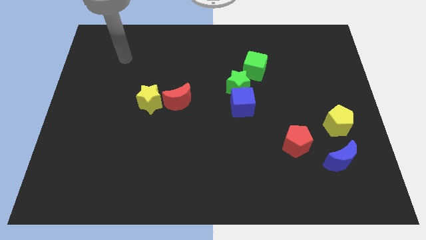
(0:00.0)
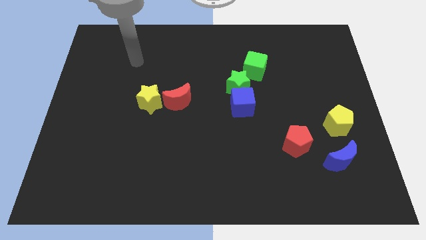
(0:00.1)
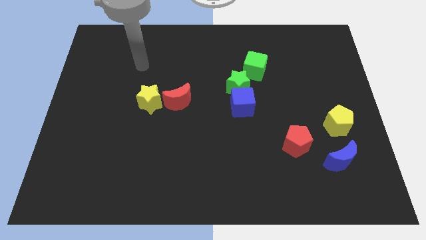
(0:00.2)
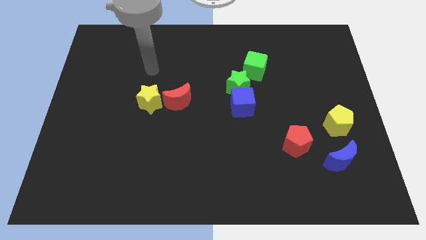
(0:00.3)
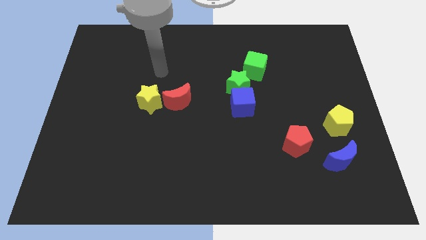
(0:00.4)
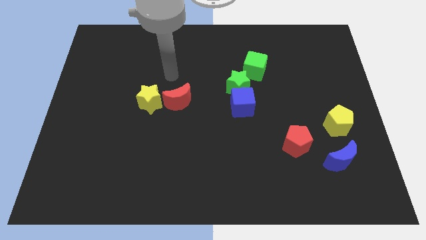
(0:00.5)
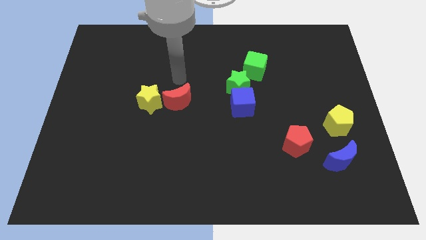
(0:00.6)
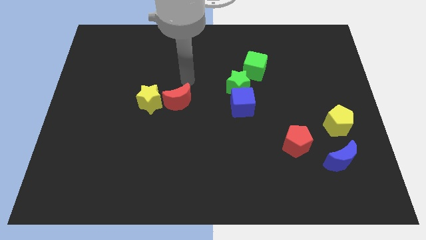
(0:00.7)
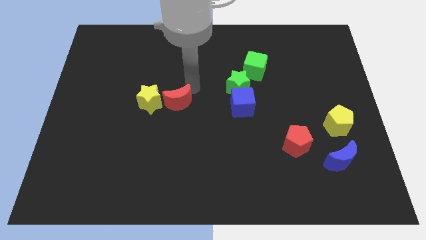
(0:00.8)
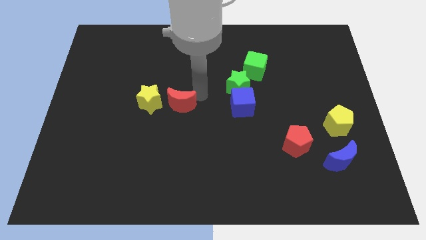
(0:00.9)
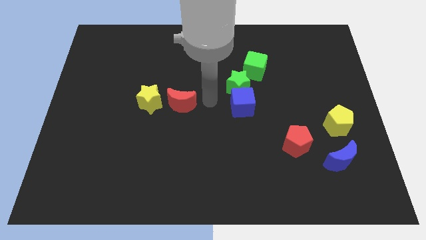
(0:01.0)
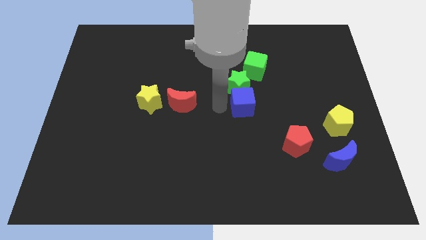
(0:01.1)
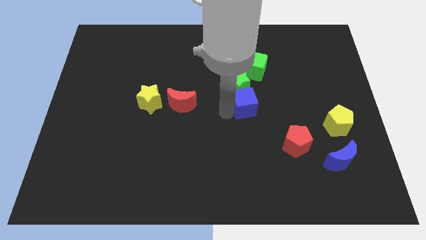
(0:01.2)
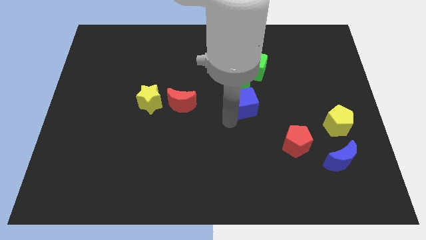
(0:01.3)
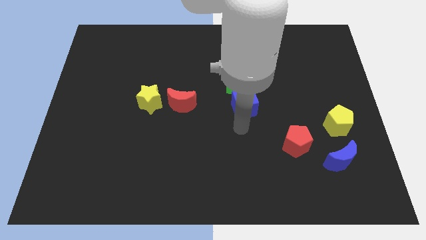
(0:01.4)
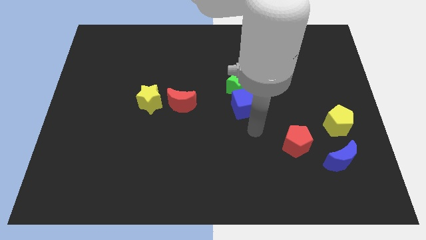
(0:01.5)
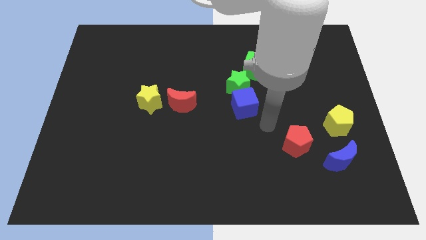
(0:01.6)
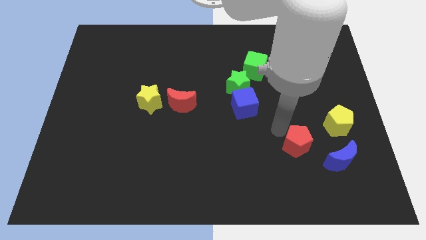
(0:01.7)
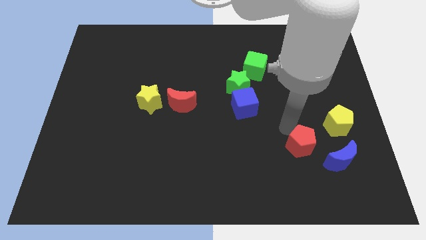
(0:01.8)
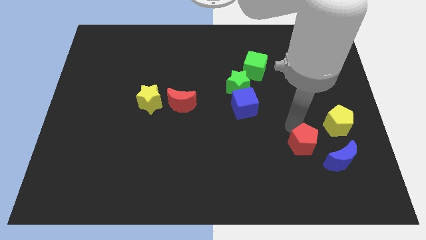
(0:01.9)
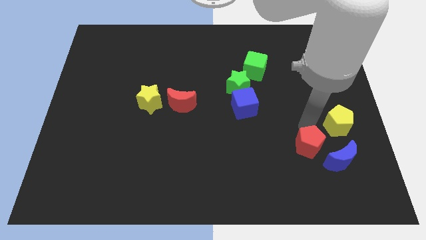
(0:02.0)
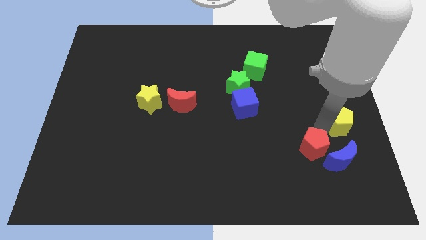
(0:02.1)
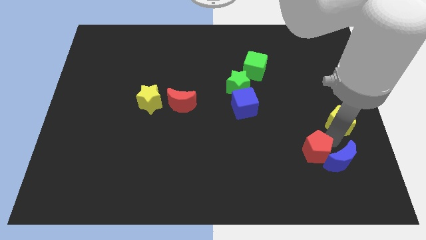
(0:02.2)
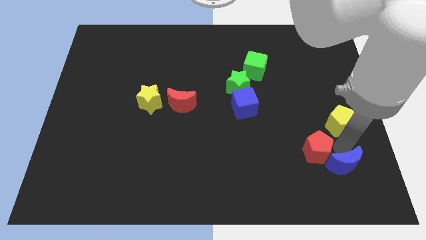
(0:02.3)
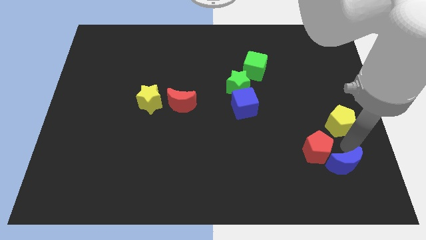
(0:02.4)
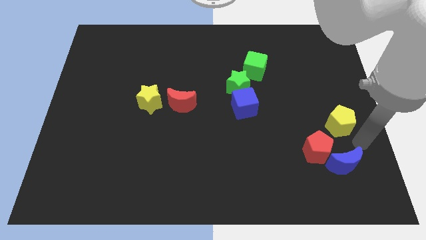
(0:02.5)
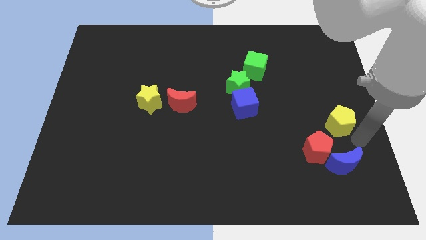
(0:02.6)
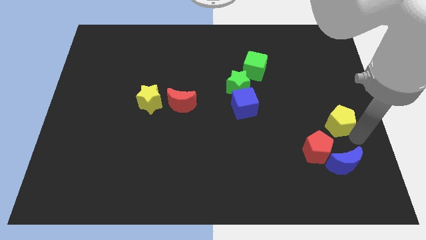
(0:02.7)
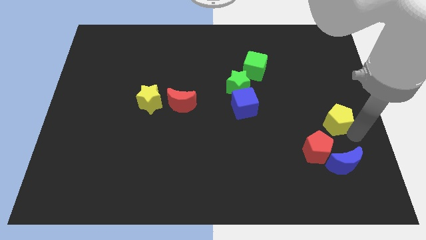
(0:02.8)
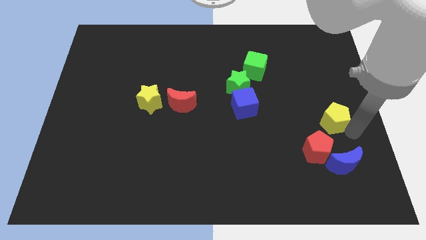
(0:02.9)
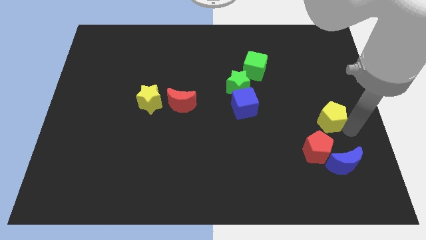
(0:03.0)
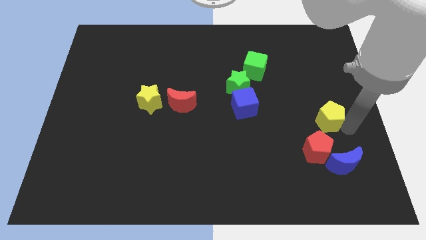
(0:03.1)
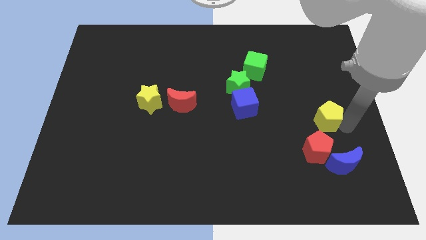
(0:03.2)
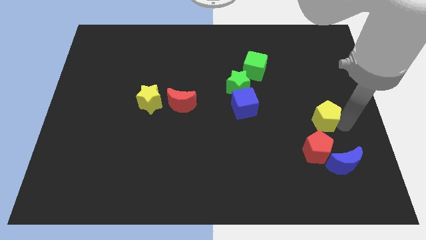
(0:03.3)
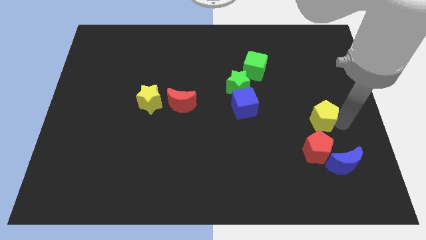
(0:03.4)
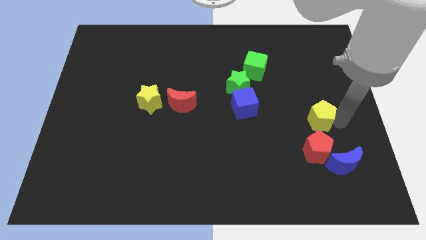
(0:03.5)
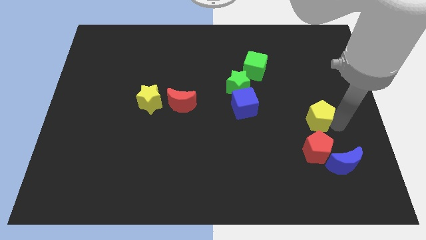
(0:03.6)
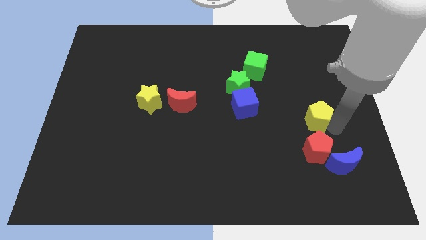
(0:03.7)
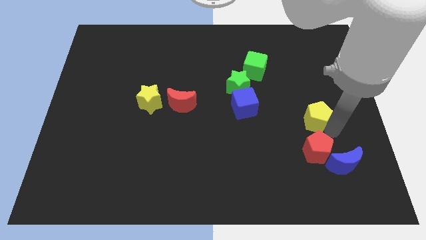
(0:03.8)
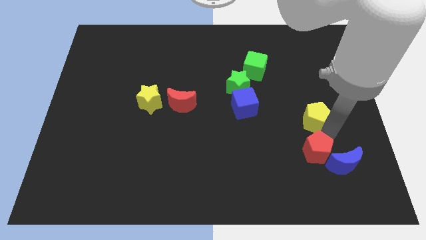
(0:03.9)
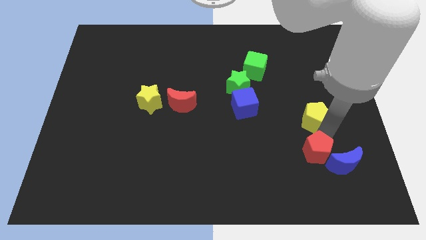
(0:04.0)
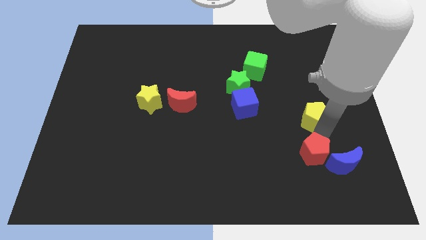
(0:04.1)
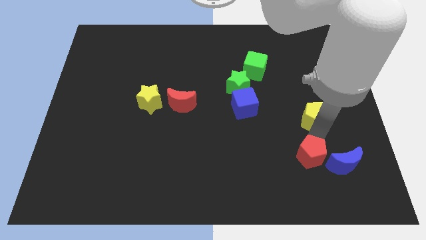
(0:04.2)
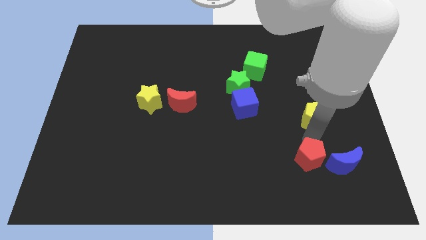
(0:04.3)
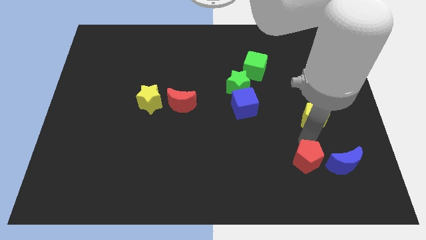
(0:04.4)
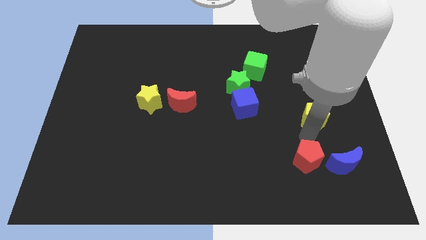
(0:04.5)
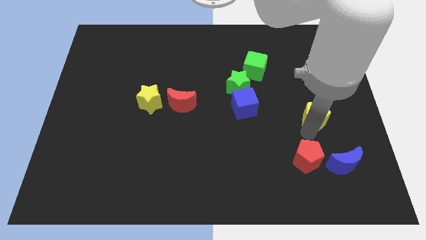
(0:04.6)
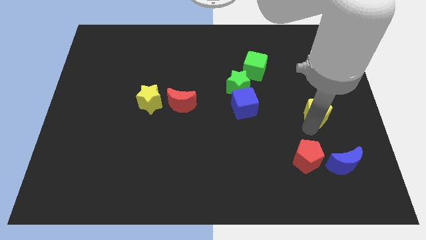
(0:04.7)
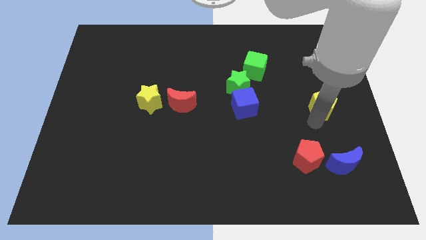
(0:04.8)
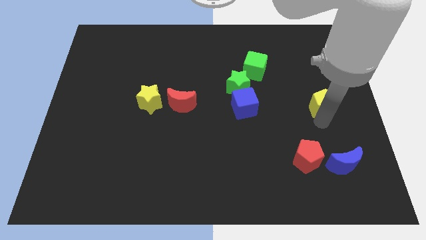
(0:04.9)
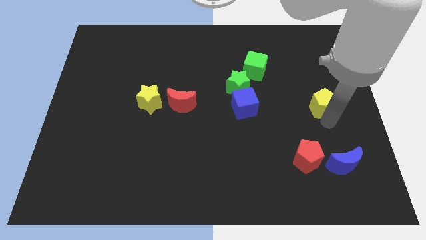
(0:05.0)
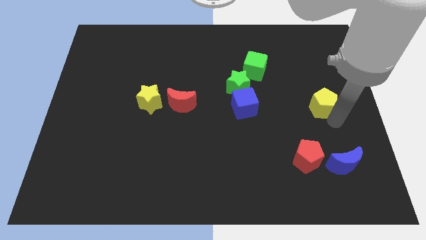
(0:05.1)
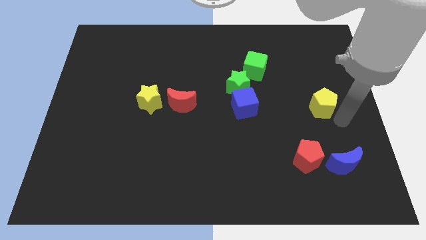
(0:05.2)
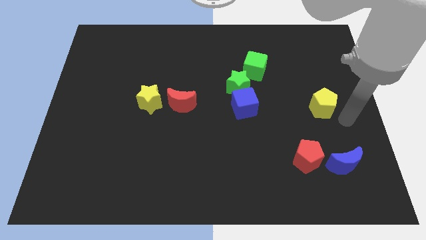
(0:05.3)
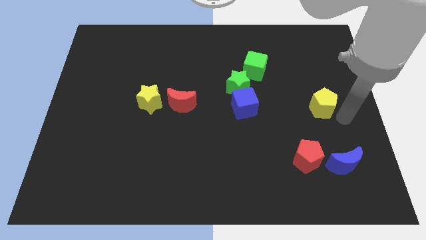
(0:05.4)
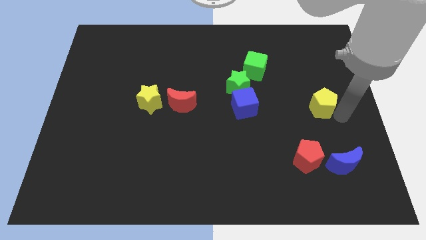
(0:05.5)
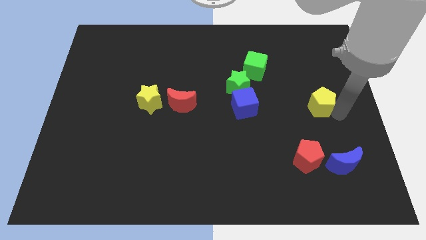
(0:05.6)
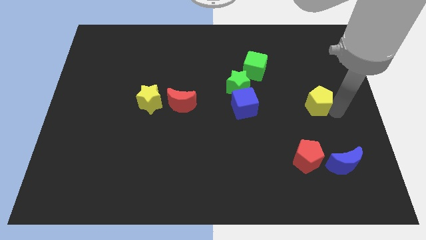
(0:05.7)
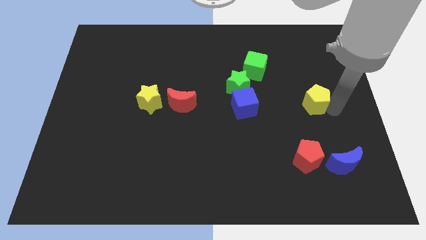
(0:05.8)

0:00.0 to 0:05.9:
slightly slide the yellow pentagon up and left

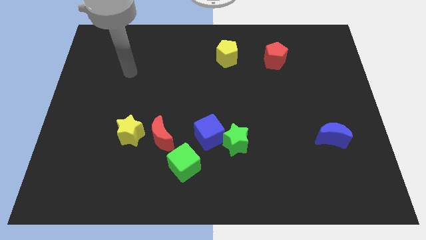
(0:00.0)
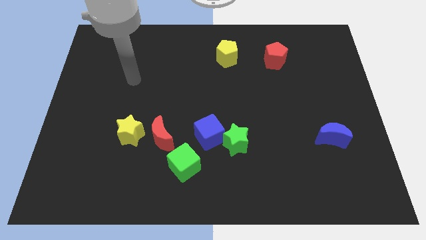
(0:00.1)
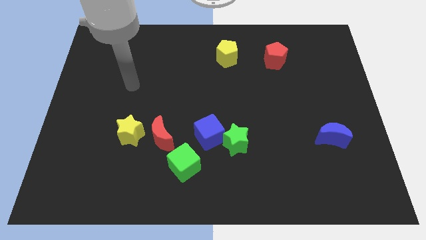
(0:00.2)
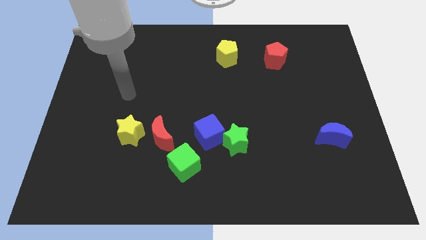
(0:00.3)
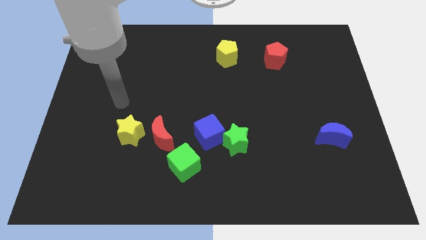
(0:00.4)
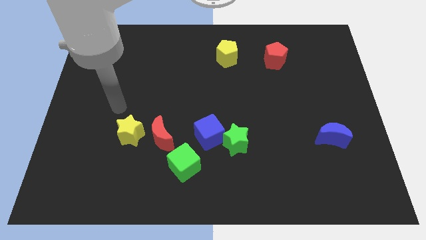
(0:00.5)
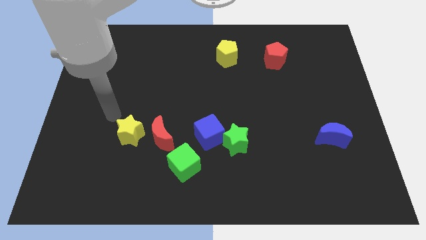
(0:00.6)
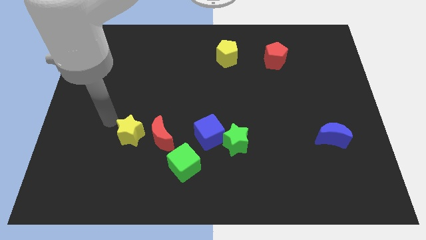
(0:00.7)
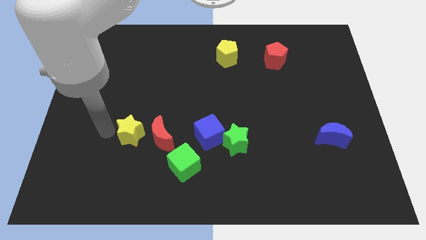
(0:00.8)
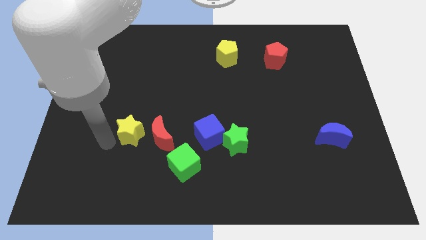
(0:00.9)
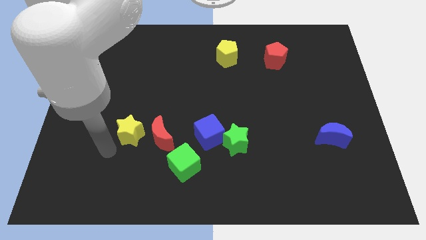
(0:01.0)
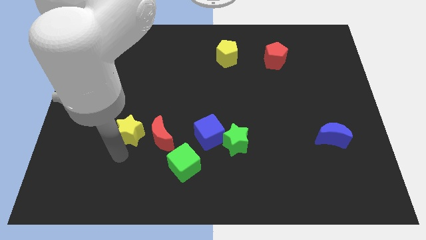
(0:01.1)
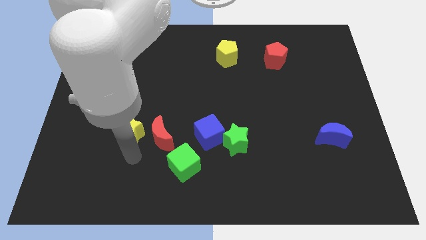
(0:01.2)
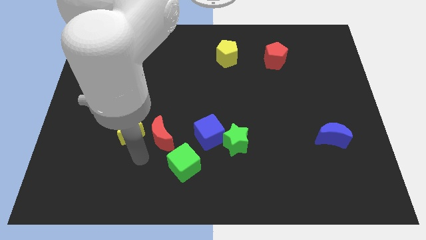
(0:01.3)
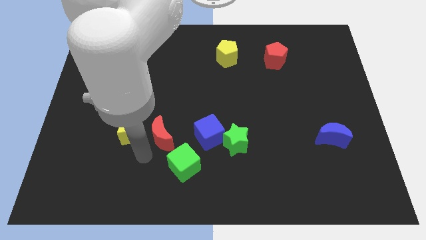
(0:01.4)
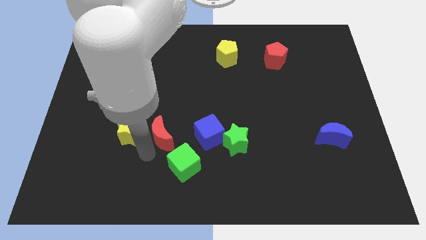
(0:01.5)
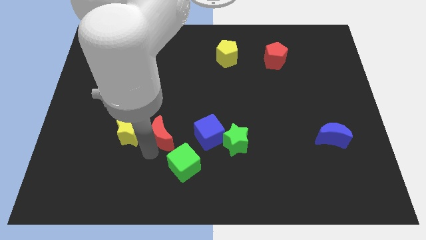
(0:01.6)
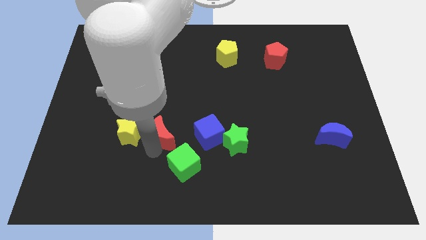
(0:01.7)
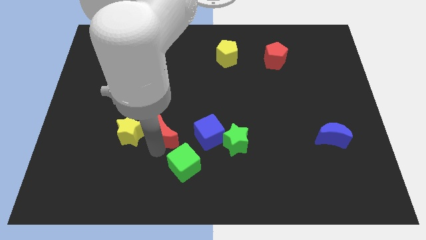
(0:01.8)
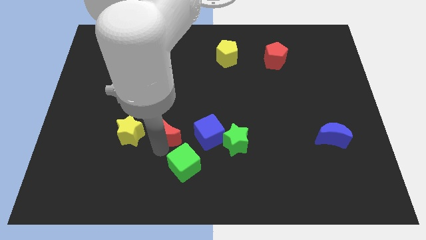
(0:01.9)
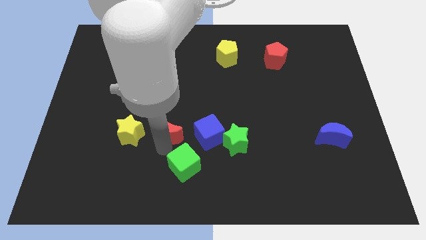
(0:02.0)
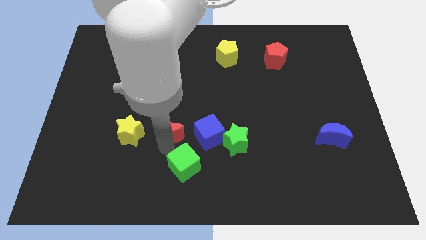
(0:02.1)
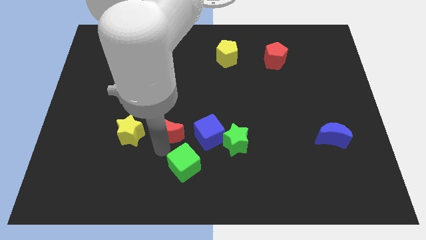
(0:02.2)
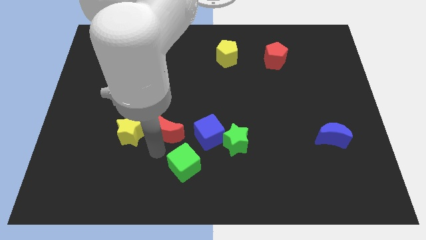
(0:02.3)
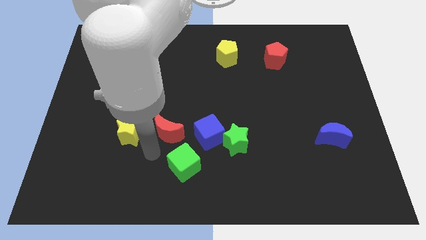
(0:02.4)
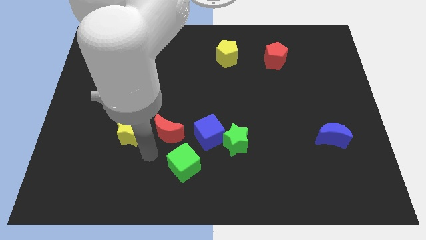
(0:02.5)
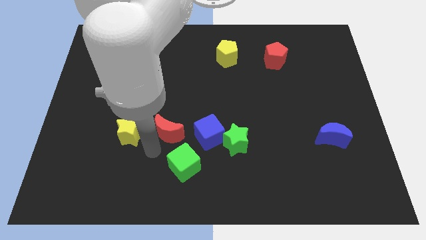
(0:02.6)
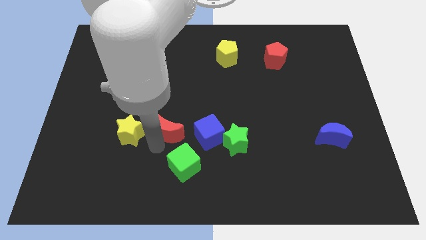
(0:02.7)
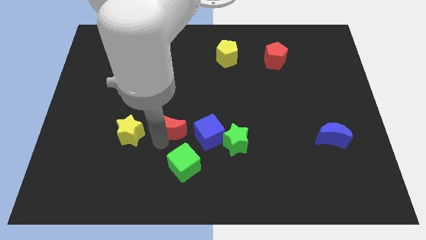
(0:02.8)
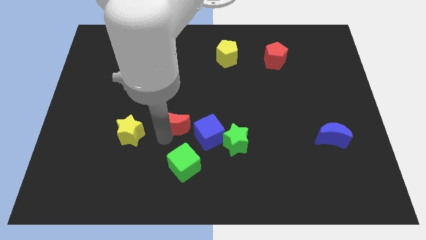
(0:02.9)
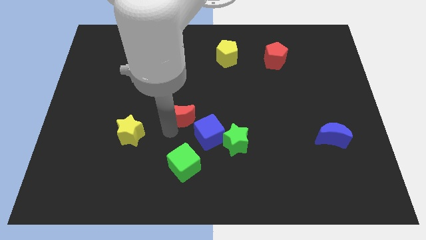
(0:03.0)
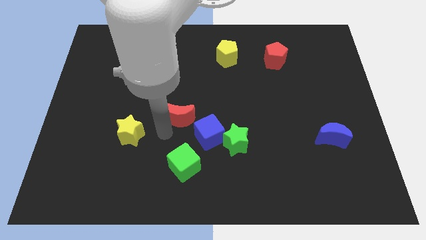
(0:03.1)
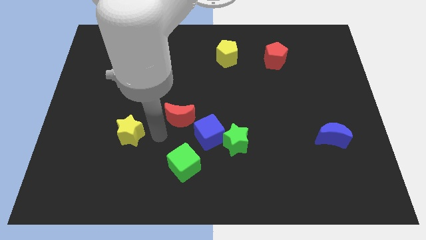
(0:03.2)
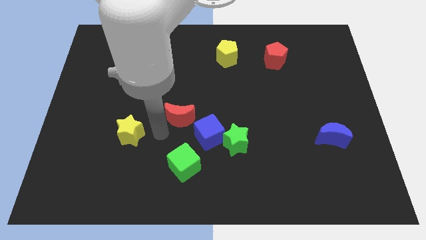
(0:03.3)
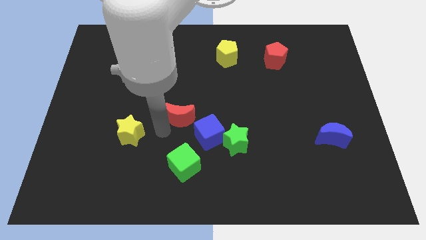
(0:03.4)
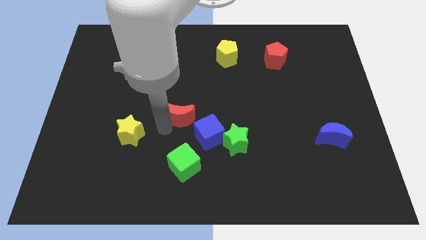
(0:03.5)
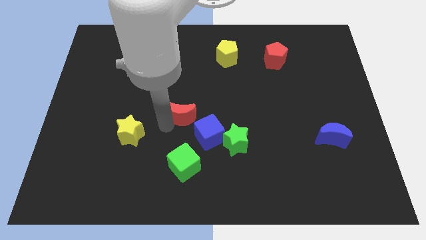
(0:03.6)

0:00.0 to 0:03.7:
slightly move the red moon up and to the right diagonally
